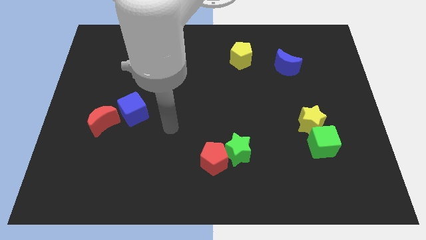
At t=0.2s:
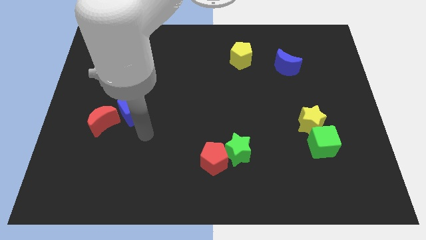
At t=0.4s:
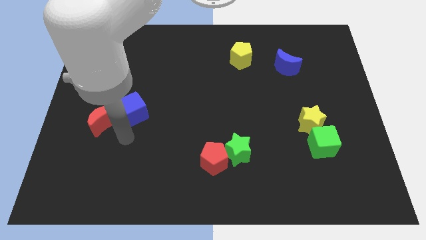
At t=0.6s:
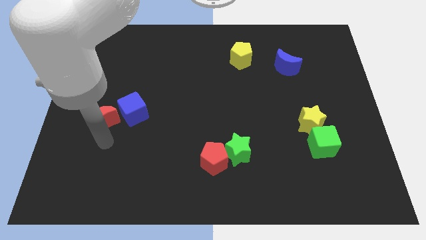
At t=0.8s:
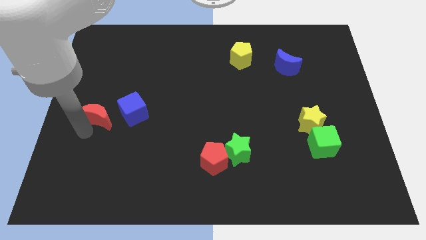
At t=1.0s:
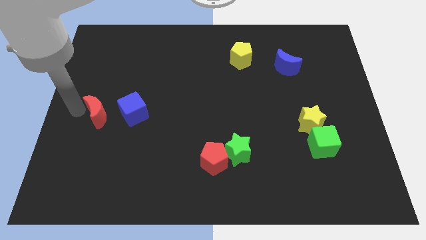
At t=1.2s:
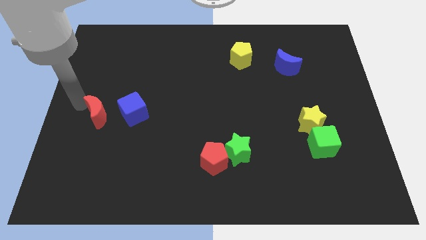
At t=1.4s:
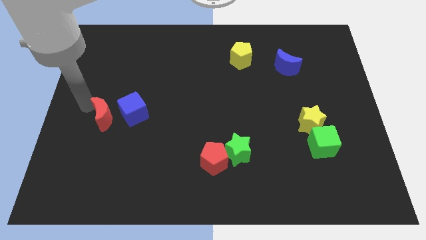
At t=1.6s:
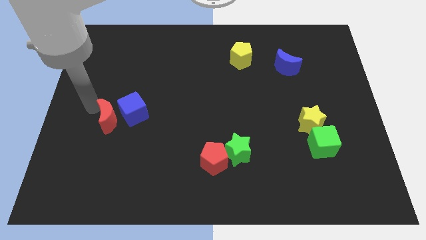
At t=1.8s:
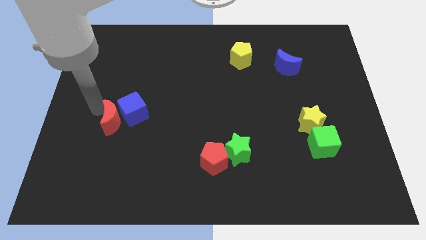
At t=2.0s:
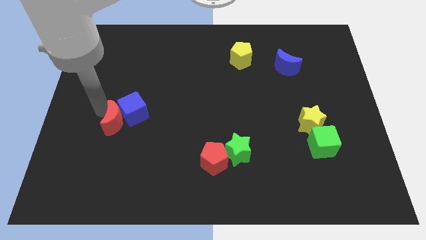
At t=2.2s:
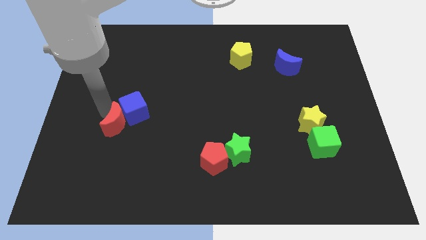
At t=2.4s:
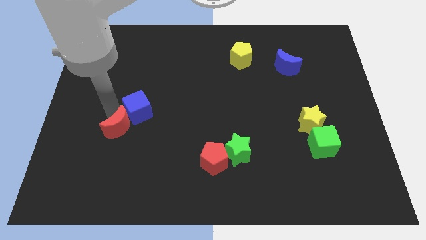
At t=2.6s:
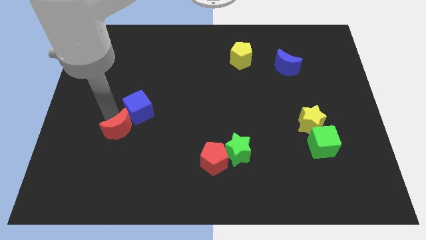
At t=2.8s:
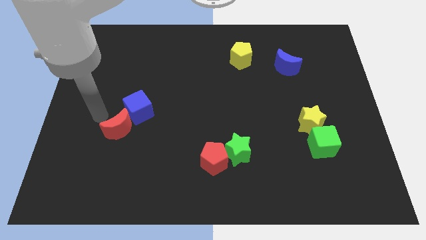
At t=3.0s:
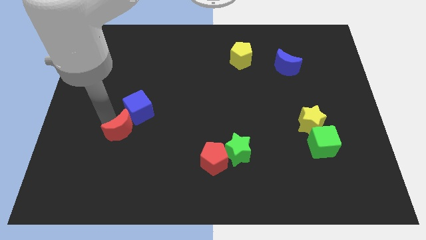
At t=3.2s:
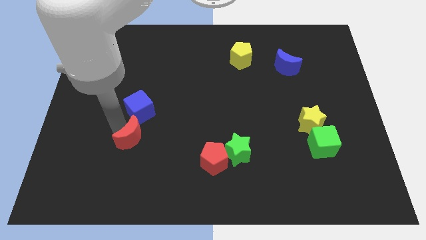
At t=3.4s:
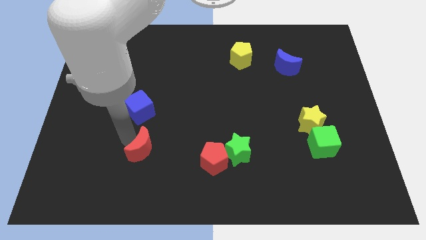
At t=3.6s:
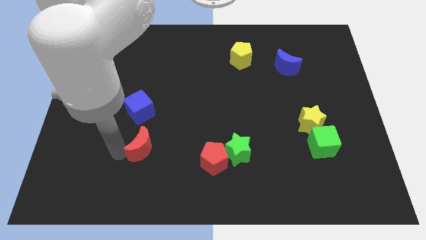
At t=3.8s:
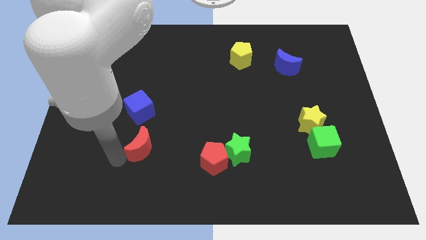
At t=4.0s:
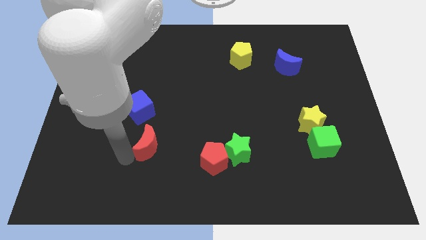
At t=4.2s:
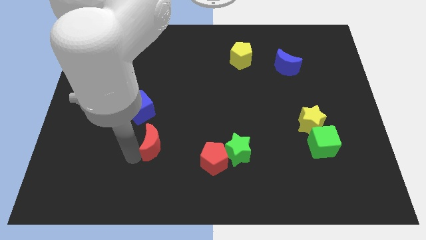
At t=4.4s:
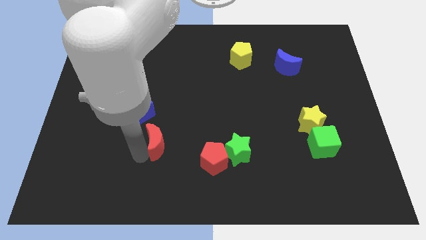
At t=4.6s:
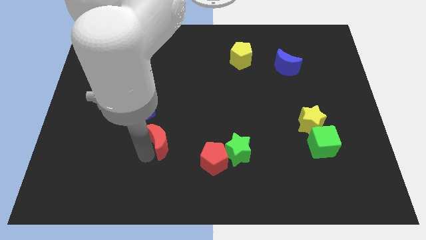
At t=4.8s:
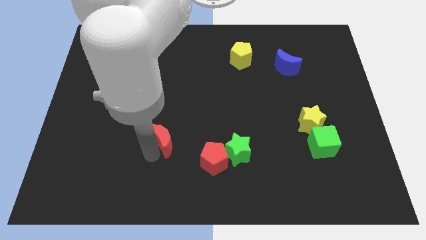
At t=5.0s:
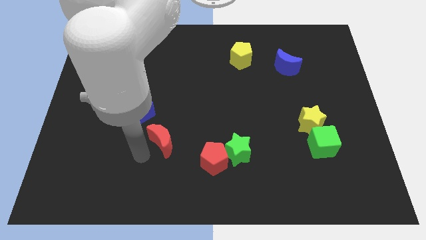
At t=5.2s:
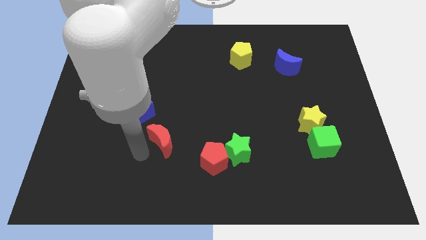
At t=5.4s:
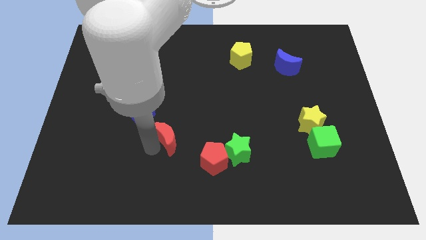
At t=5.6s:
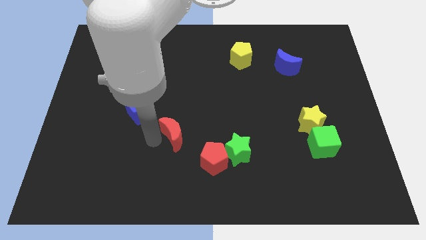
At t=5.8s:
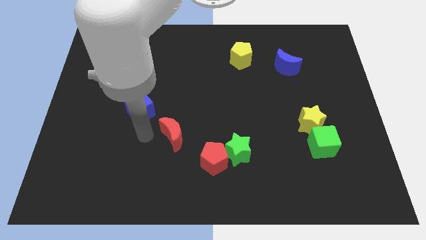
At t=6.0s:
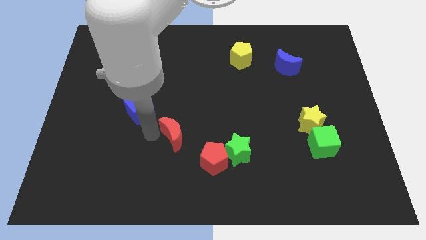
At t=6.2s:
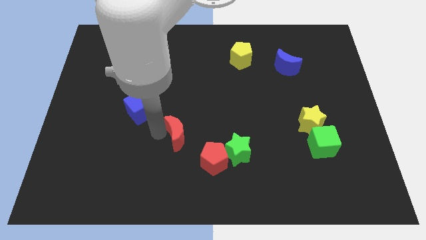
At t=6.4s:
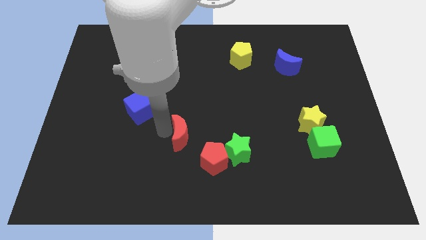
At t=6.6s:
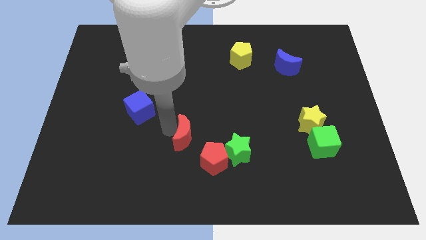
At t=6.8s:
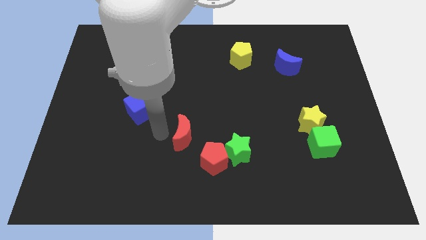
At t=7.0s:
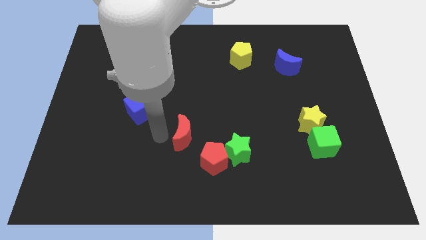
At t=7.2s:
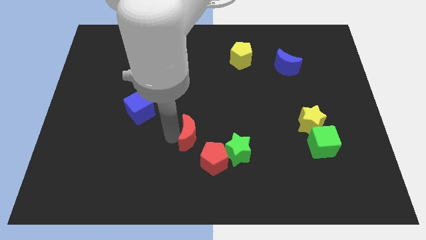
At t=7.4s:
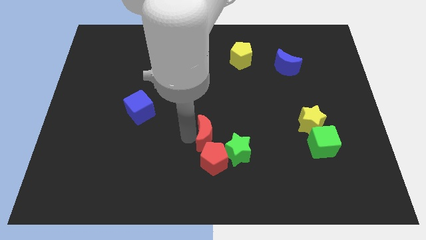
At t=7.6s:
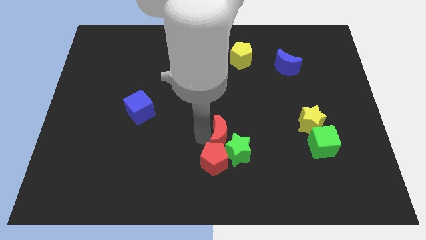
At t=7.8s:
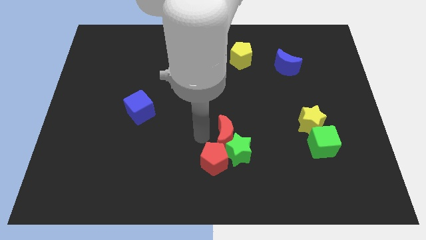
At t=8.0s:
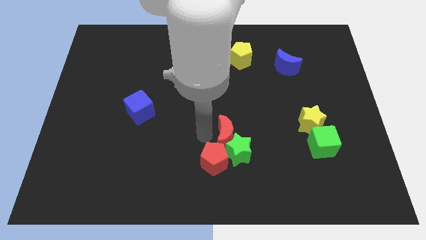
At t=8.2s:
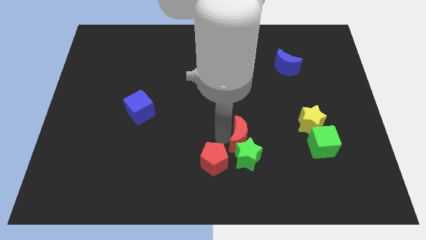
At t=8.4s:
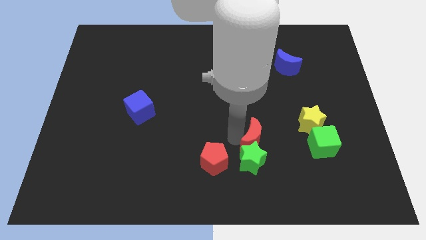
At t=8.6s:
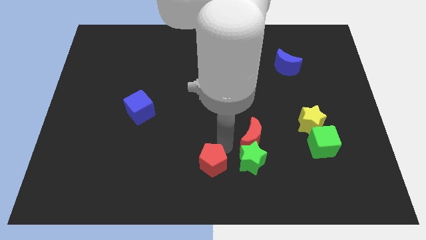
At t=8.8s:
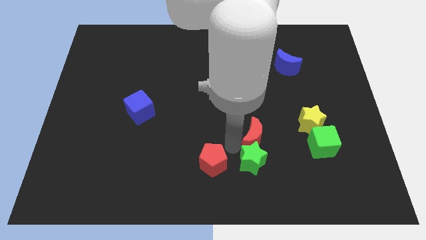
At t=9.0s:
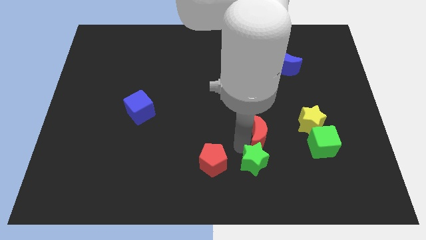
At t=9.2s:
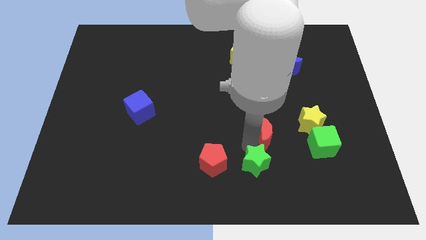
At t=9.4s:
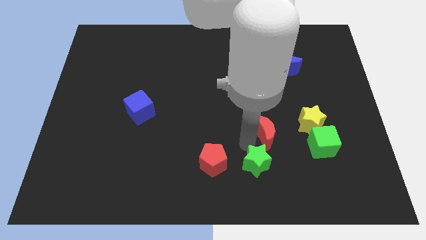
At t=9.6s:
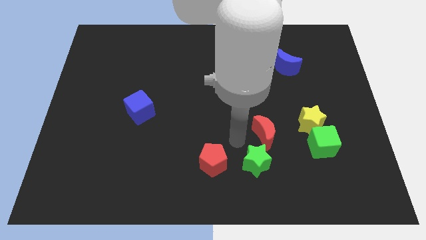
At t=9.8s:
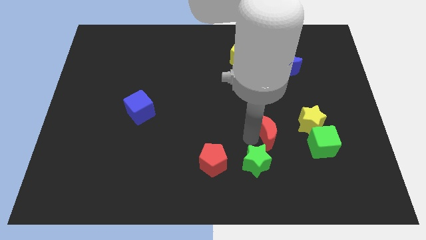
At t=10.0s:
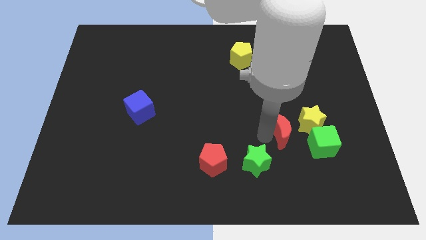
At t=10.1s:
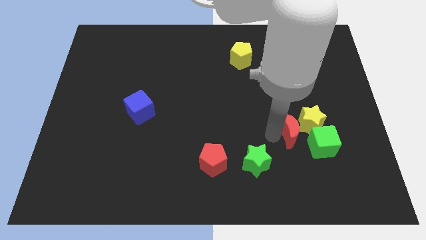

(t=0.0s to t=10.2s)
push the red moon next to the yellow star

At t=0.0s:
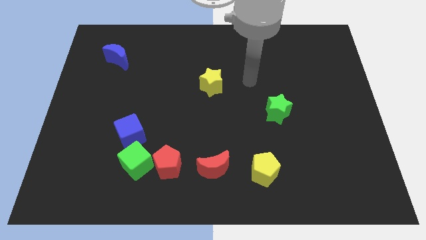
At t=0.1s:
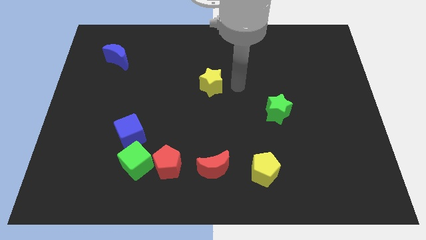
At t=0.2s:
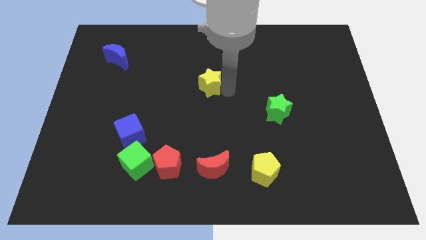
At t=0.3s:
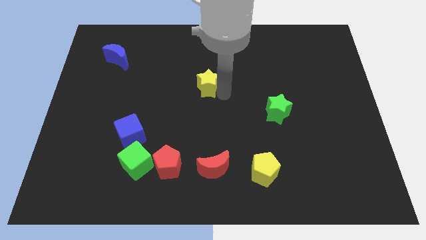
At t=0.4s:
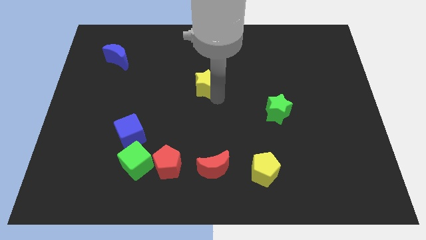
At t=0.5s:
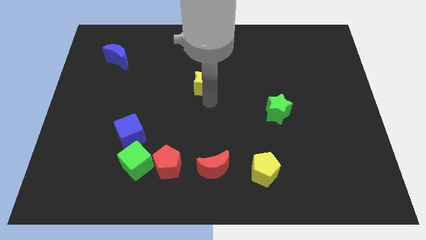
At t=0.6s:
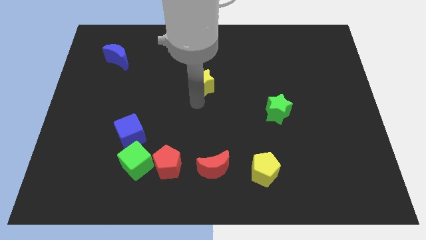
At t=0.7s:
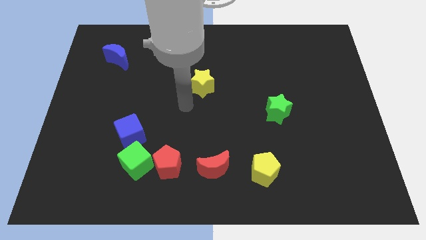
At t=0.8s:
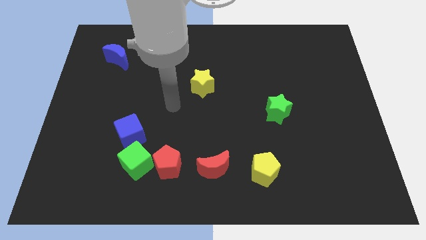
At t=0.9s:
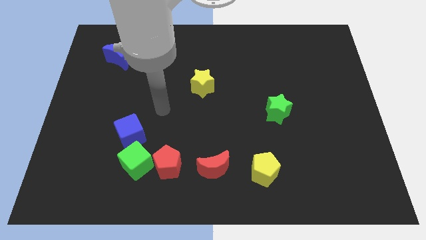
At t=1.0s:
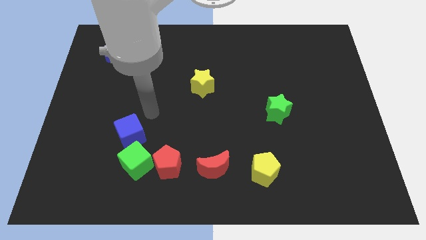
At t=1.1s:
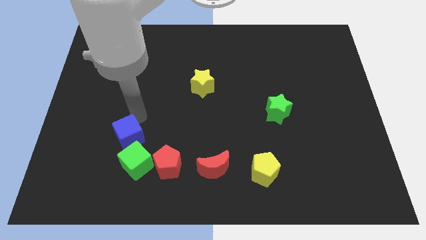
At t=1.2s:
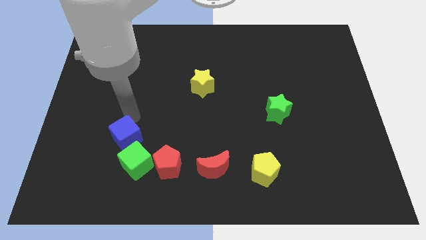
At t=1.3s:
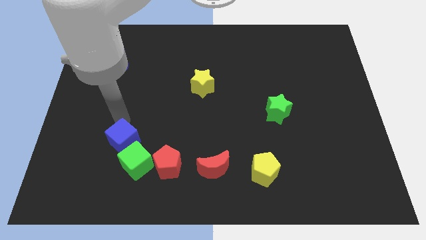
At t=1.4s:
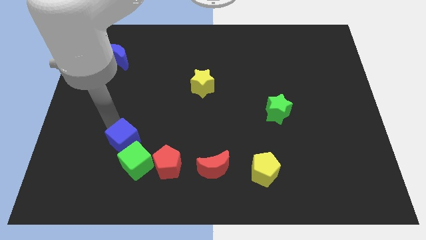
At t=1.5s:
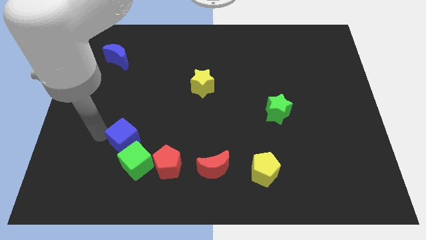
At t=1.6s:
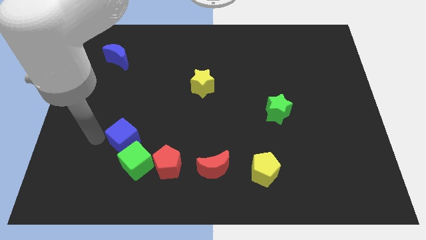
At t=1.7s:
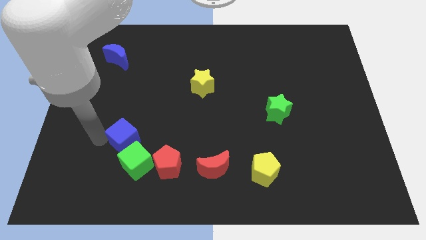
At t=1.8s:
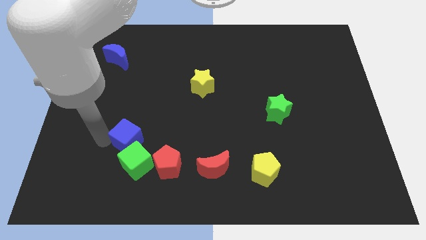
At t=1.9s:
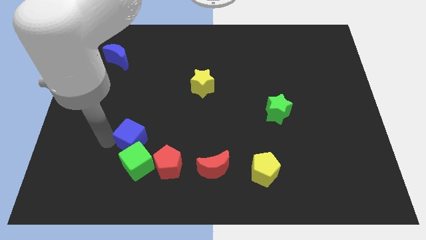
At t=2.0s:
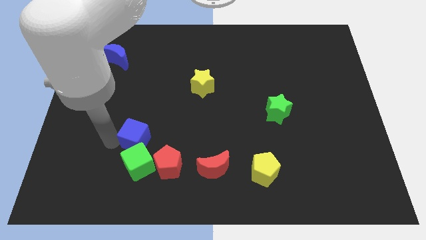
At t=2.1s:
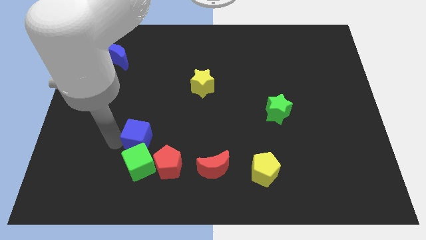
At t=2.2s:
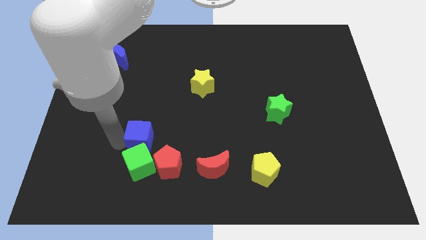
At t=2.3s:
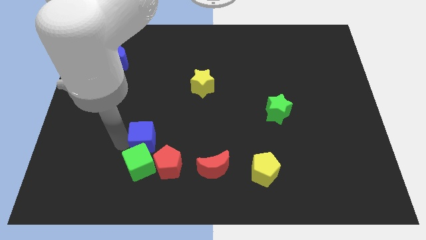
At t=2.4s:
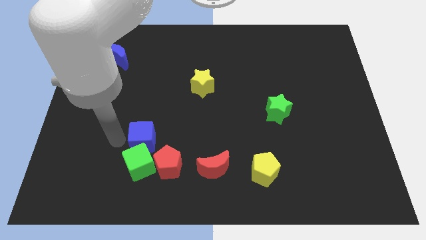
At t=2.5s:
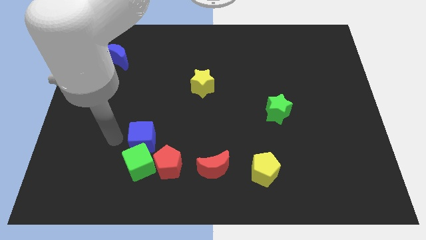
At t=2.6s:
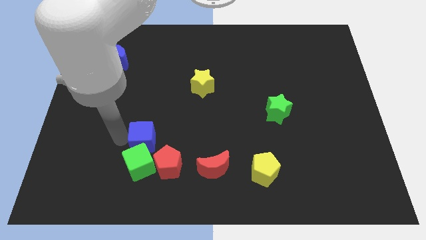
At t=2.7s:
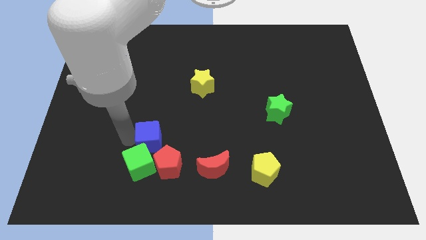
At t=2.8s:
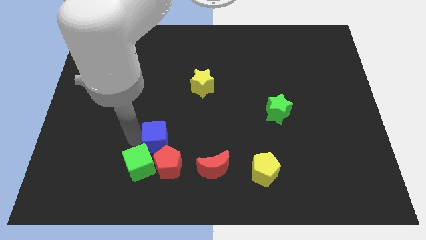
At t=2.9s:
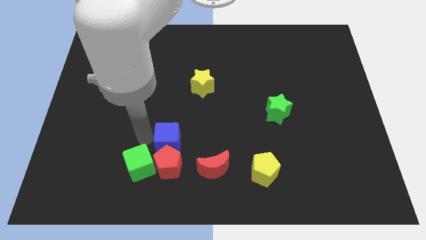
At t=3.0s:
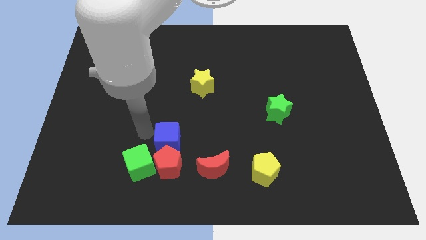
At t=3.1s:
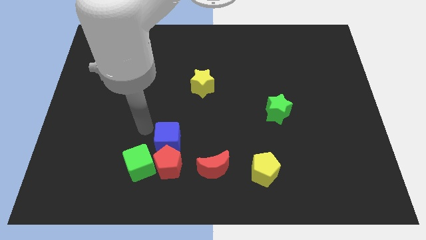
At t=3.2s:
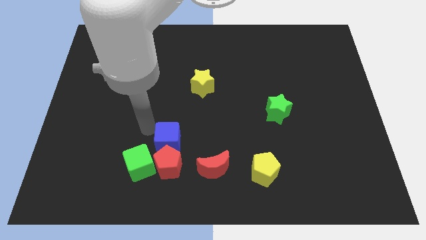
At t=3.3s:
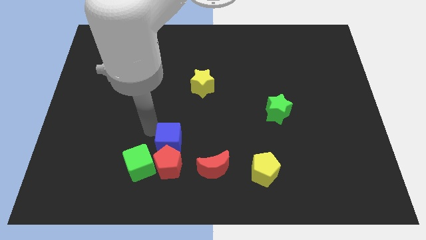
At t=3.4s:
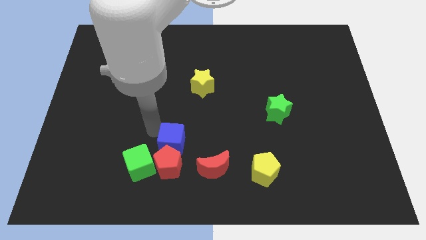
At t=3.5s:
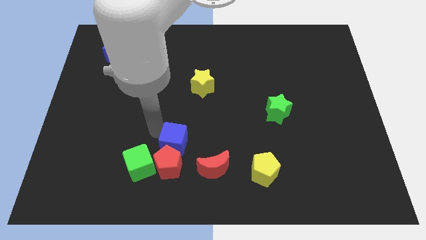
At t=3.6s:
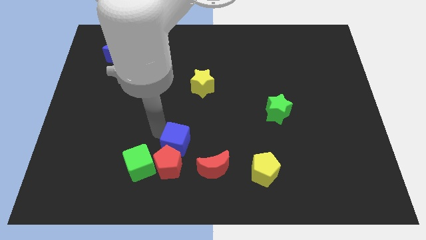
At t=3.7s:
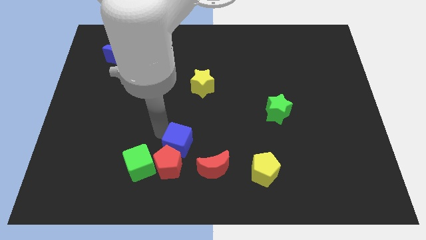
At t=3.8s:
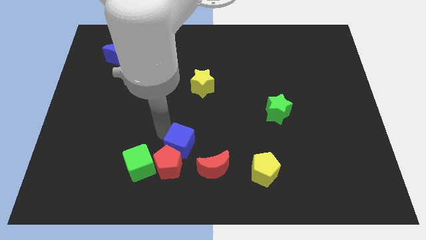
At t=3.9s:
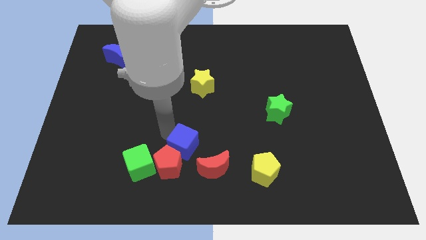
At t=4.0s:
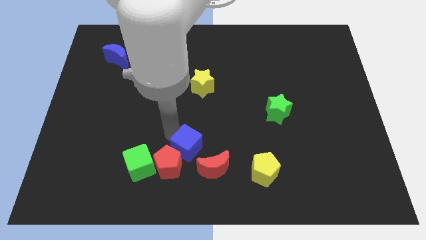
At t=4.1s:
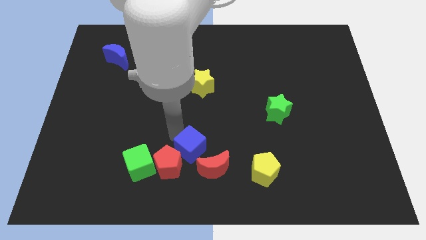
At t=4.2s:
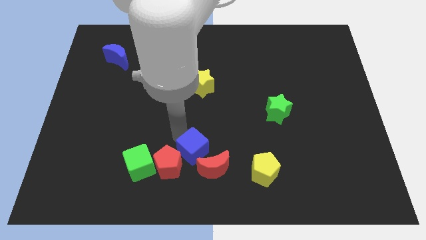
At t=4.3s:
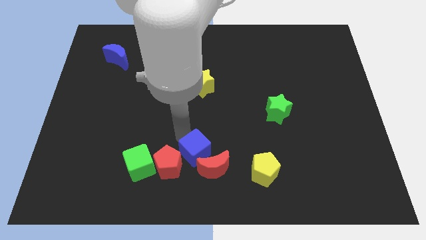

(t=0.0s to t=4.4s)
push the blue cube close to the red moon
